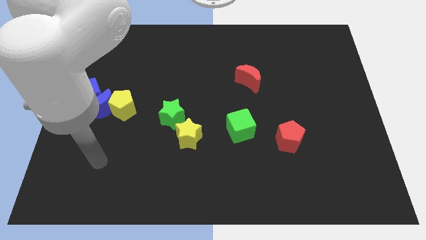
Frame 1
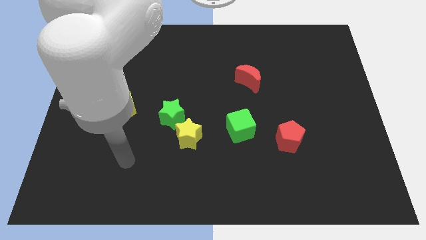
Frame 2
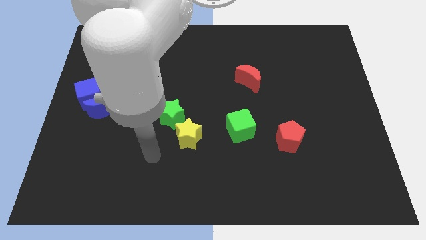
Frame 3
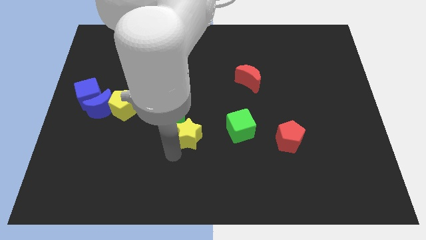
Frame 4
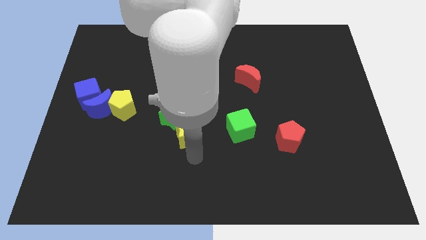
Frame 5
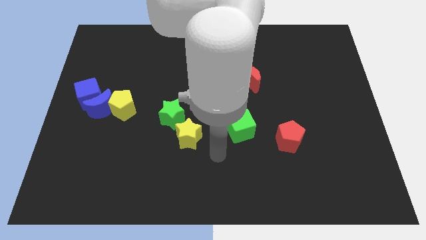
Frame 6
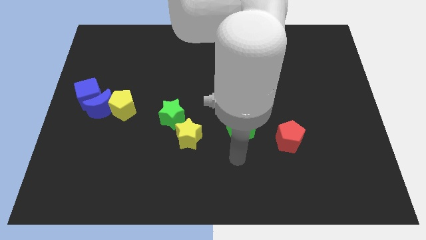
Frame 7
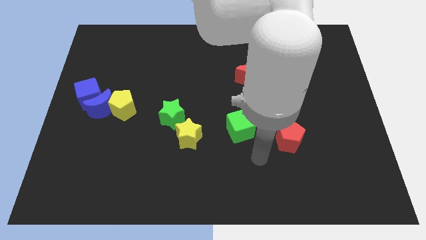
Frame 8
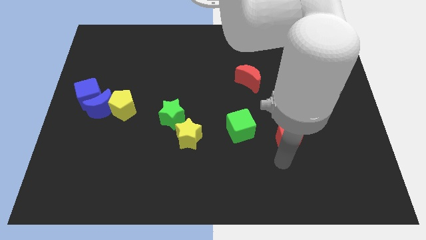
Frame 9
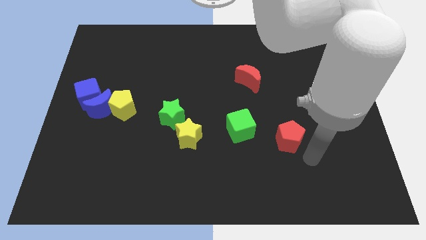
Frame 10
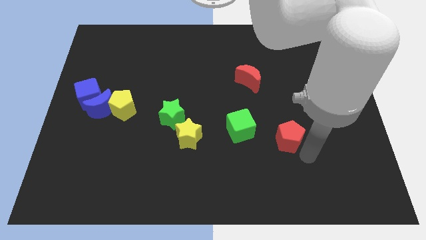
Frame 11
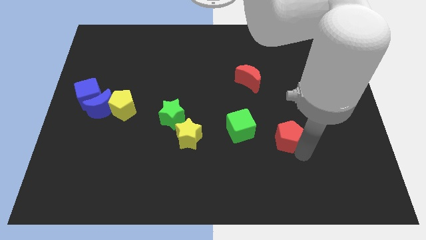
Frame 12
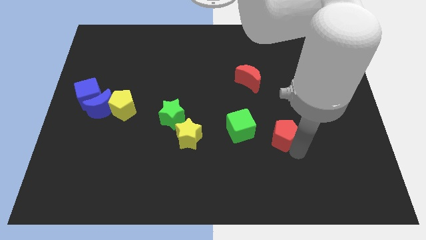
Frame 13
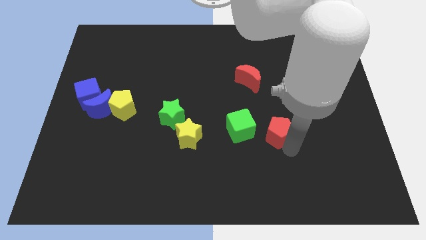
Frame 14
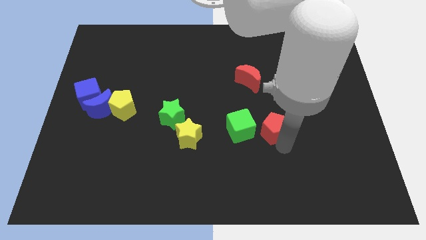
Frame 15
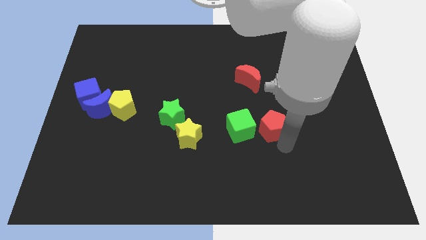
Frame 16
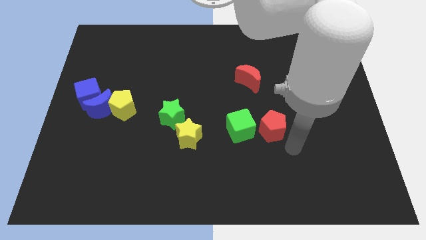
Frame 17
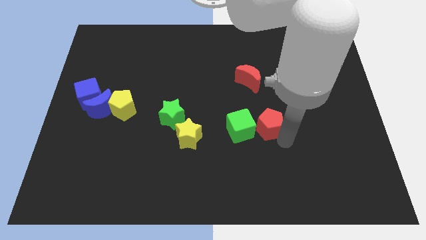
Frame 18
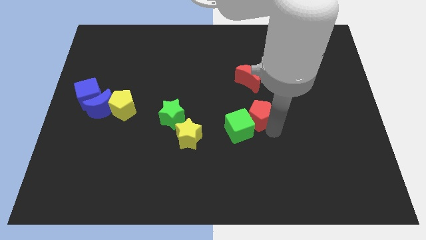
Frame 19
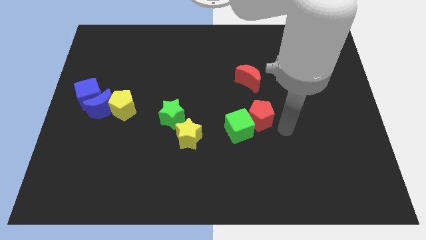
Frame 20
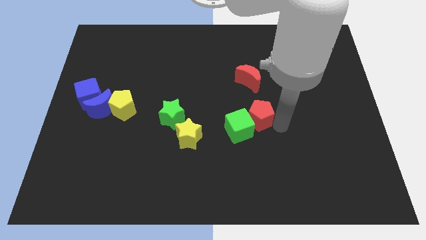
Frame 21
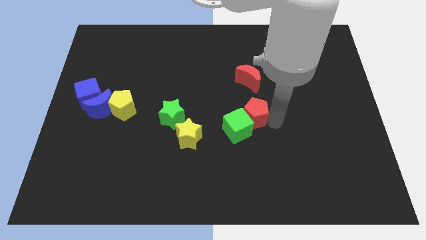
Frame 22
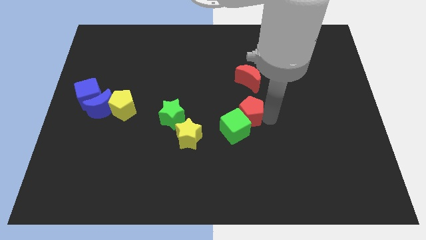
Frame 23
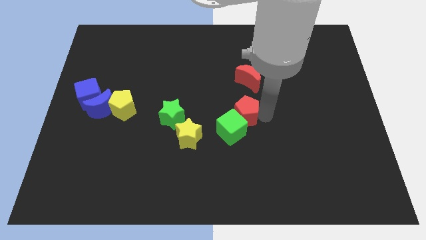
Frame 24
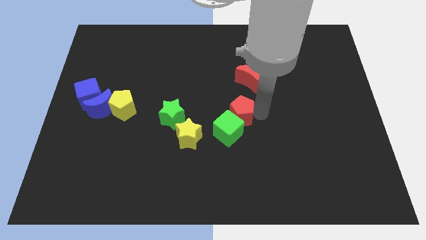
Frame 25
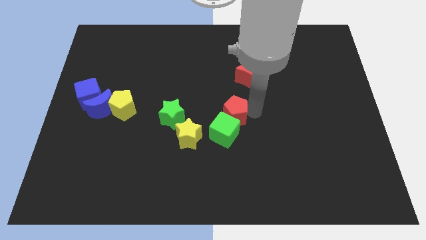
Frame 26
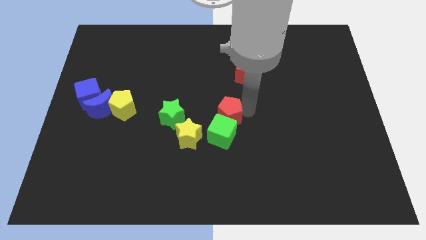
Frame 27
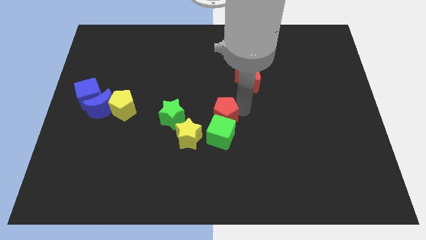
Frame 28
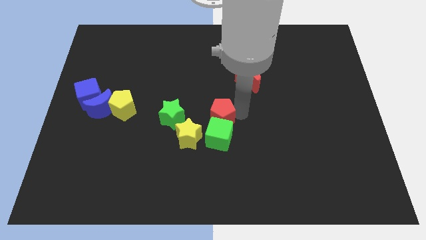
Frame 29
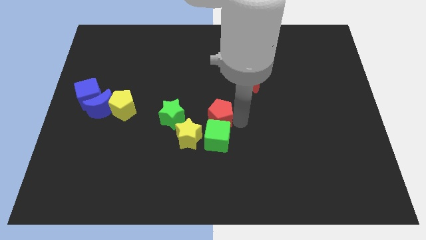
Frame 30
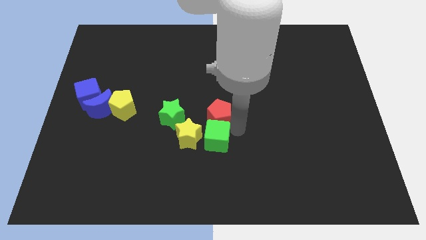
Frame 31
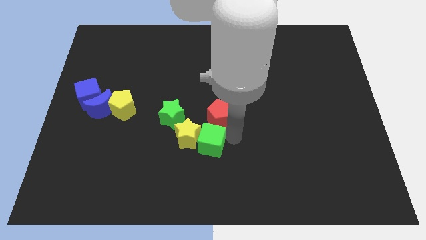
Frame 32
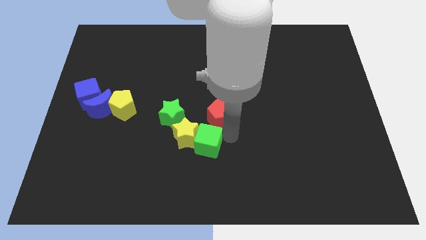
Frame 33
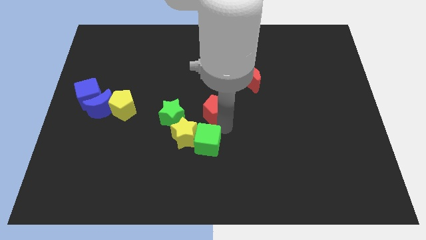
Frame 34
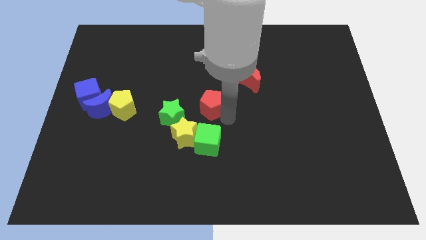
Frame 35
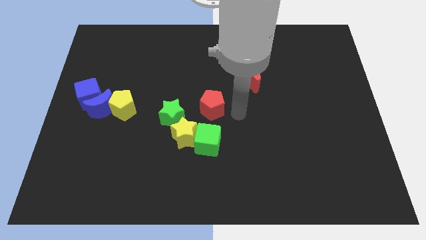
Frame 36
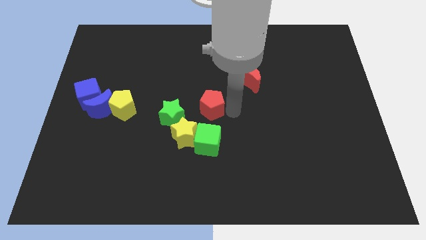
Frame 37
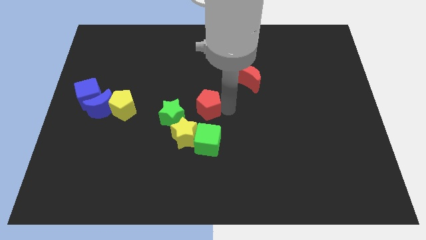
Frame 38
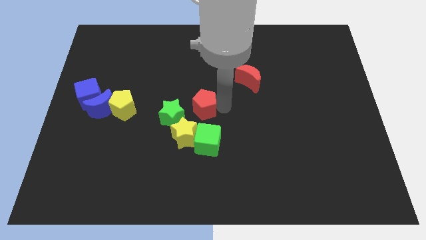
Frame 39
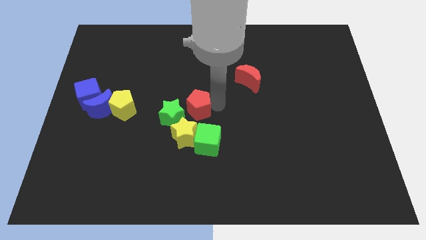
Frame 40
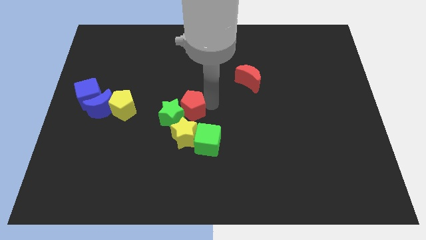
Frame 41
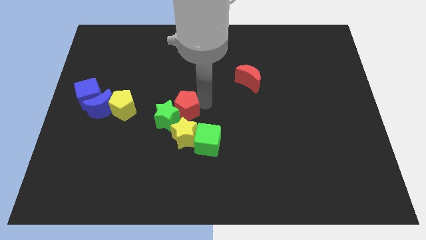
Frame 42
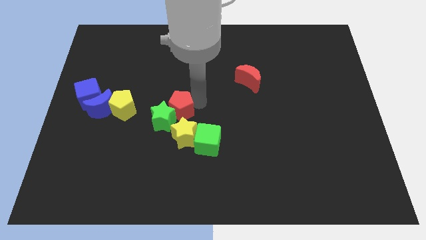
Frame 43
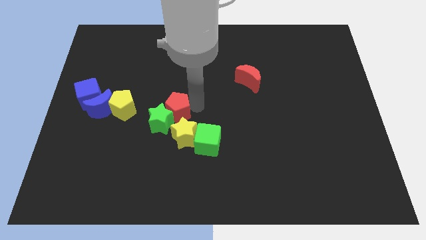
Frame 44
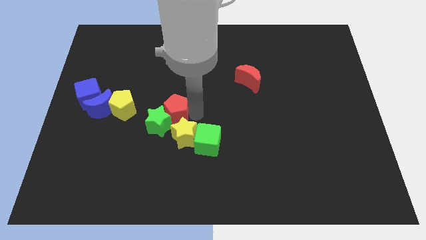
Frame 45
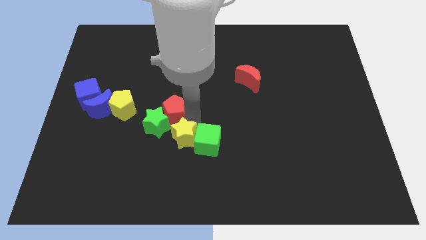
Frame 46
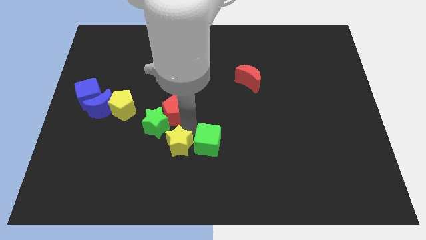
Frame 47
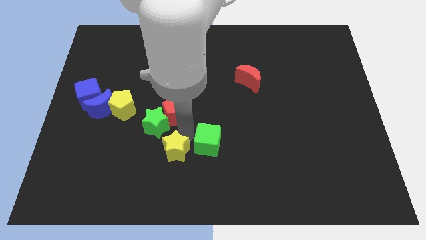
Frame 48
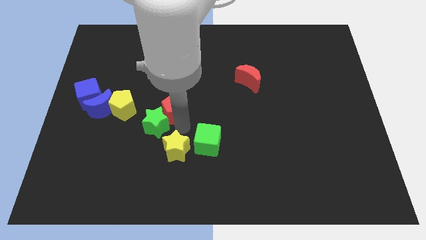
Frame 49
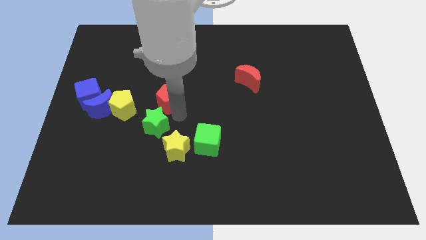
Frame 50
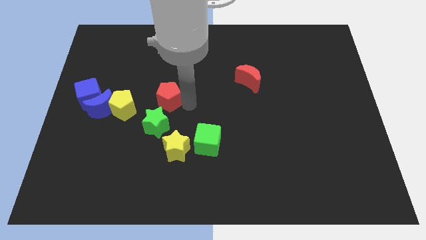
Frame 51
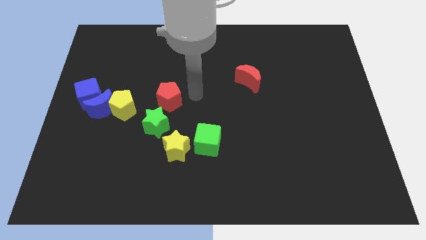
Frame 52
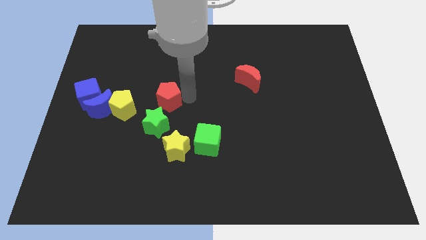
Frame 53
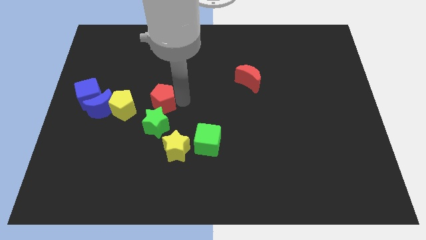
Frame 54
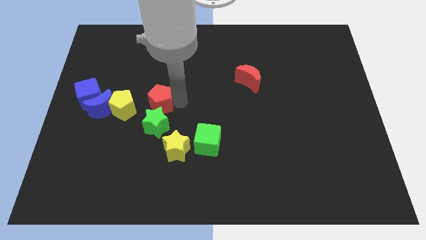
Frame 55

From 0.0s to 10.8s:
push the red pentagon to the top left of the green star

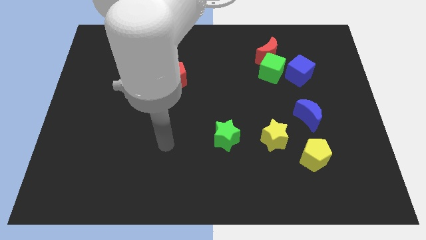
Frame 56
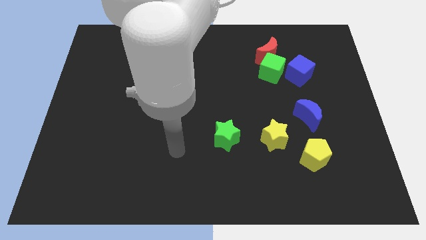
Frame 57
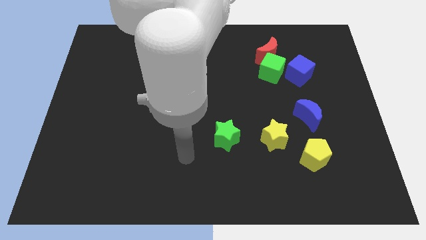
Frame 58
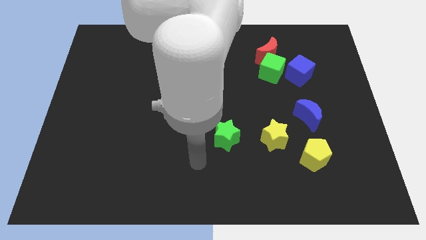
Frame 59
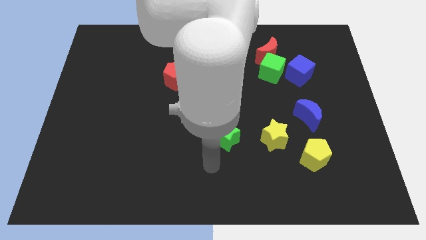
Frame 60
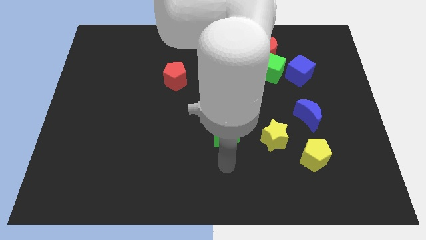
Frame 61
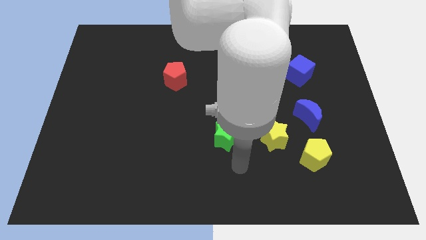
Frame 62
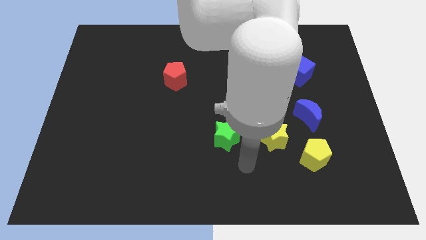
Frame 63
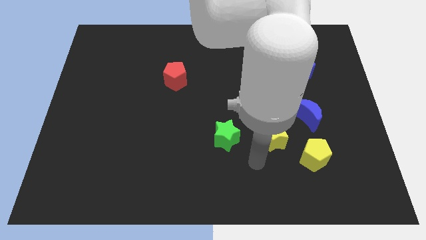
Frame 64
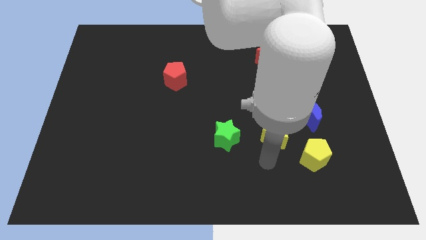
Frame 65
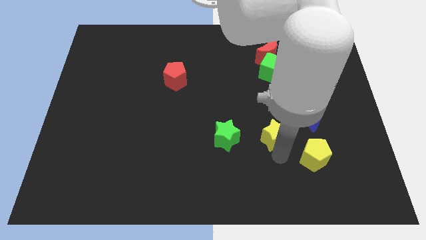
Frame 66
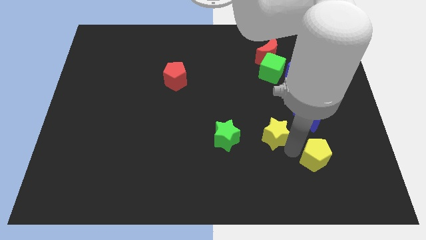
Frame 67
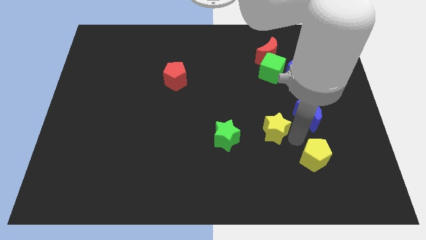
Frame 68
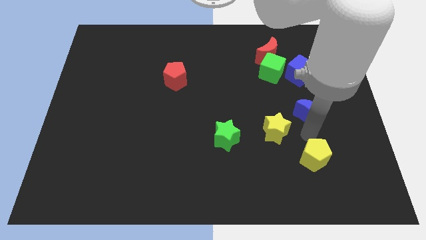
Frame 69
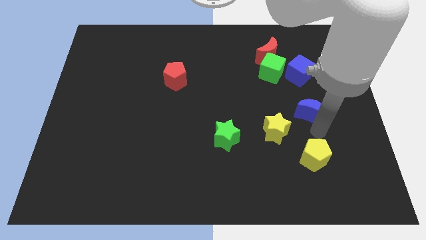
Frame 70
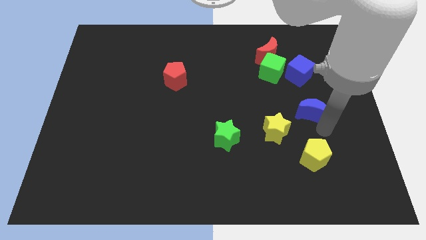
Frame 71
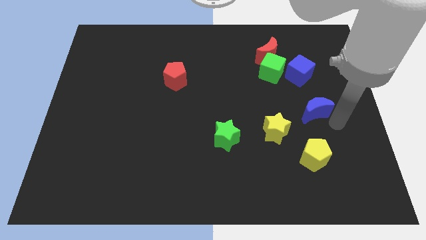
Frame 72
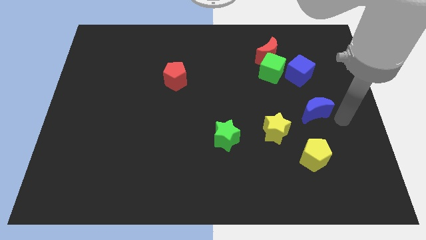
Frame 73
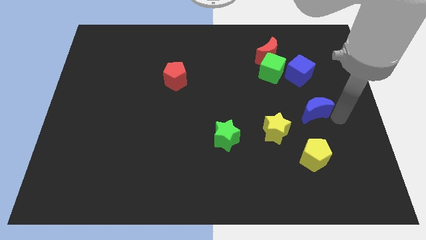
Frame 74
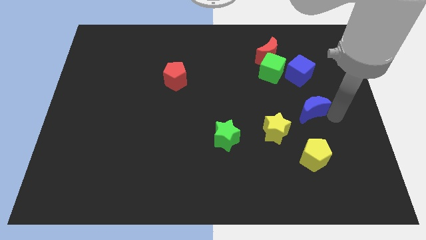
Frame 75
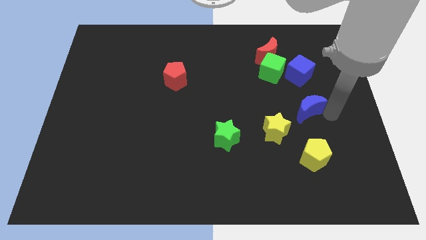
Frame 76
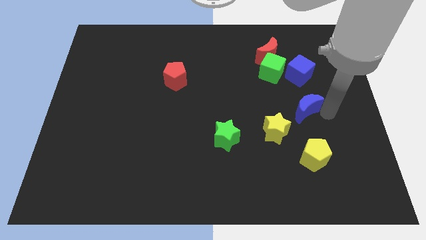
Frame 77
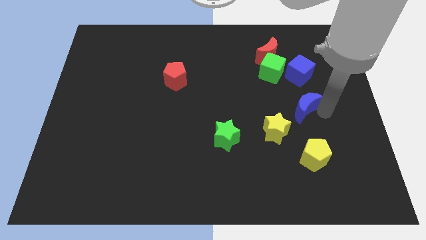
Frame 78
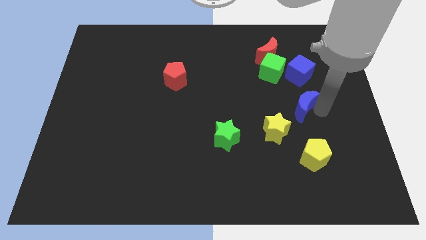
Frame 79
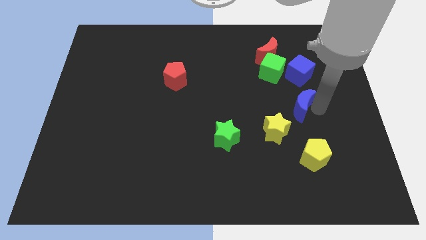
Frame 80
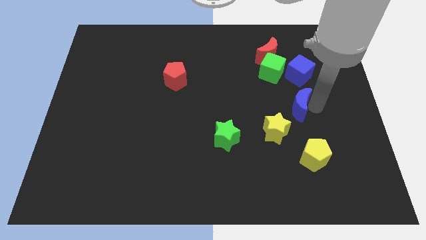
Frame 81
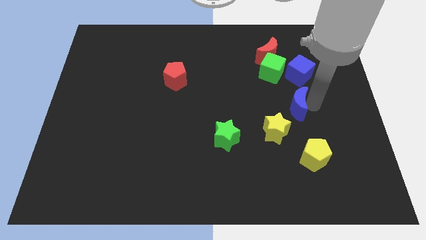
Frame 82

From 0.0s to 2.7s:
push the blue moon to the bottom side of the green cube
